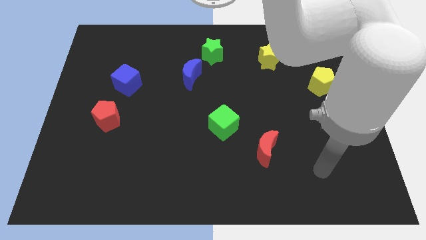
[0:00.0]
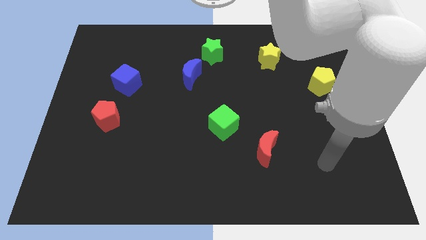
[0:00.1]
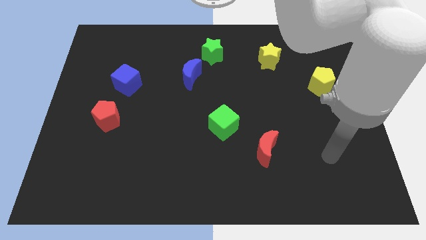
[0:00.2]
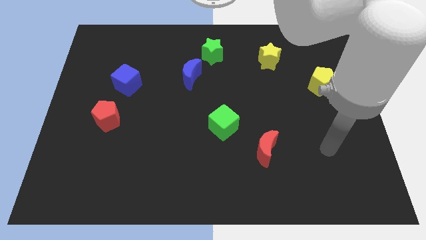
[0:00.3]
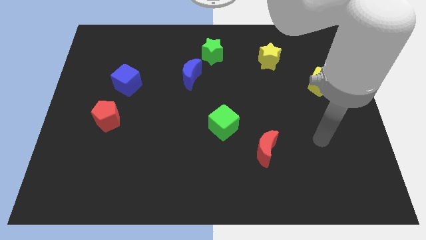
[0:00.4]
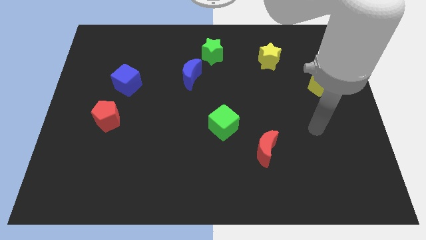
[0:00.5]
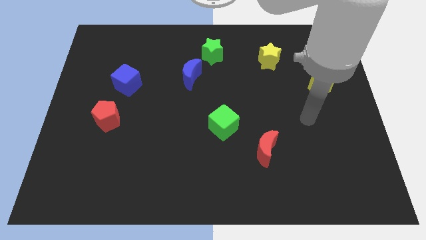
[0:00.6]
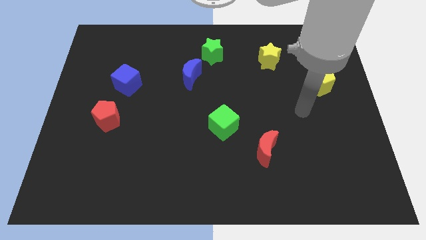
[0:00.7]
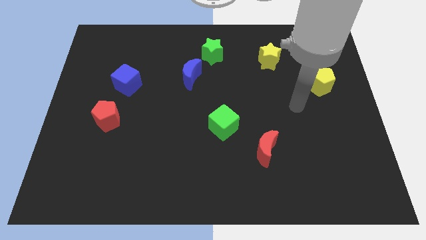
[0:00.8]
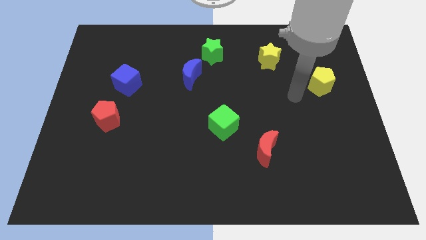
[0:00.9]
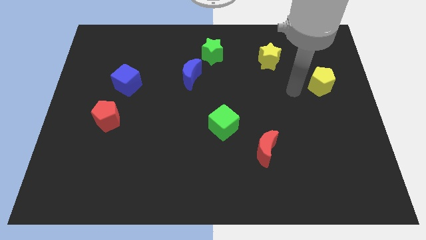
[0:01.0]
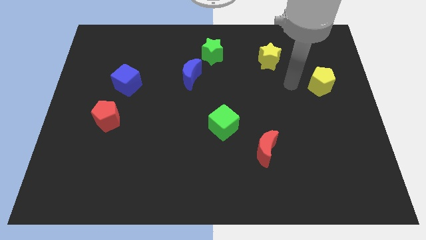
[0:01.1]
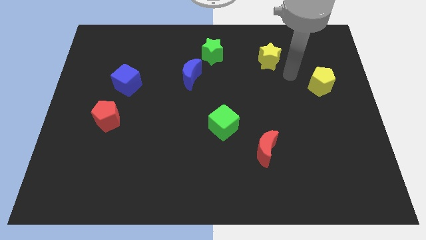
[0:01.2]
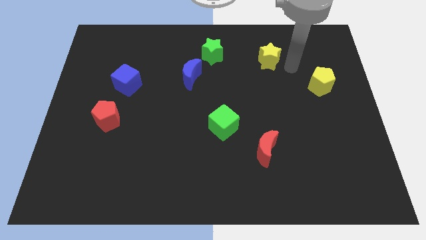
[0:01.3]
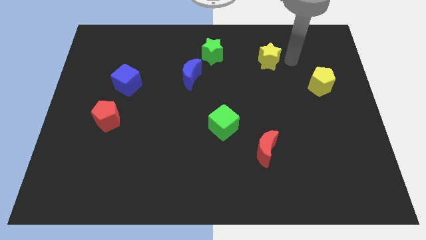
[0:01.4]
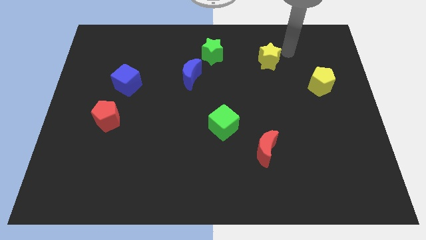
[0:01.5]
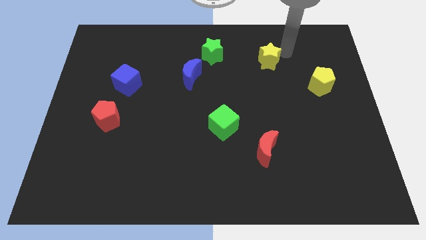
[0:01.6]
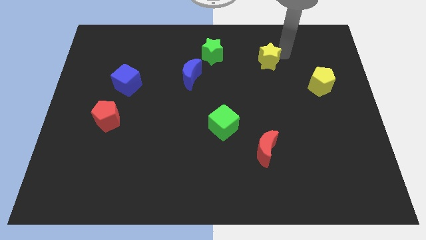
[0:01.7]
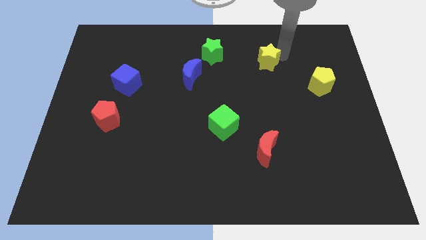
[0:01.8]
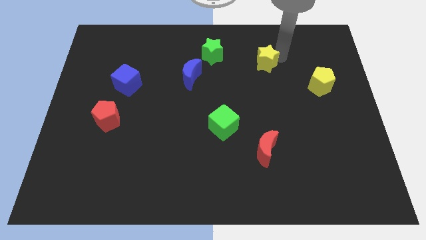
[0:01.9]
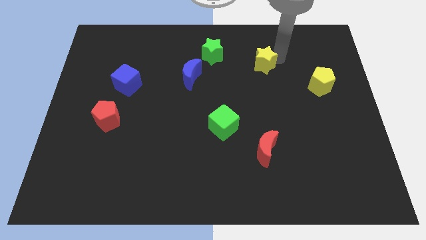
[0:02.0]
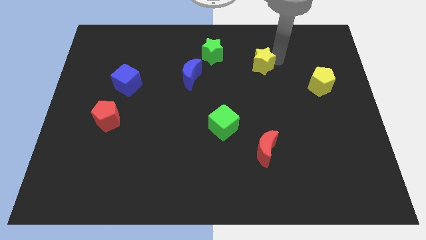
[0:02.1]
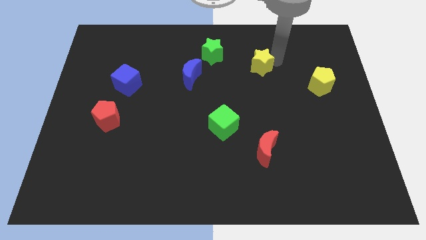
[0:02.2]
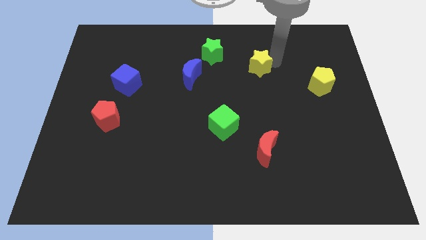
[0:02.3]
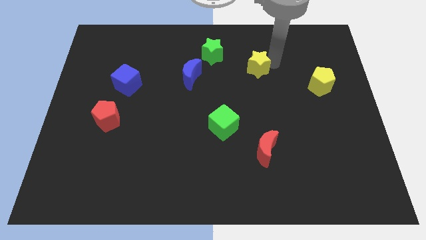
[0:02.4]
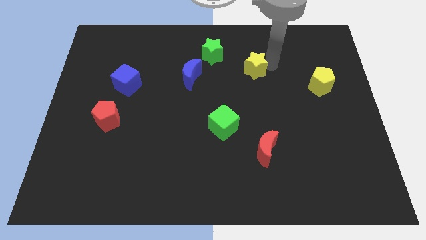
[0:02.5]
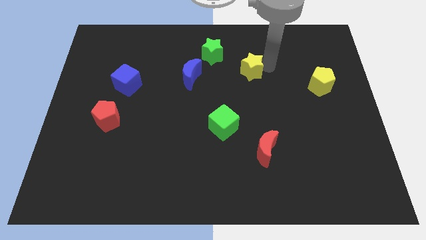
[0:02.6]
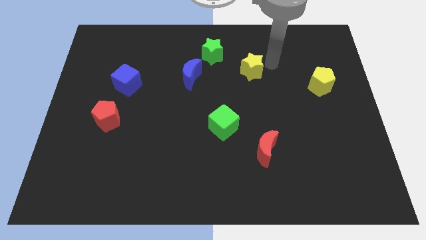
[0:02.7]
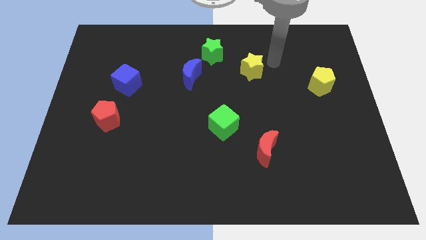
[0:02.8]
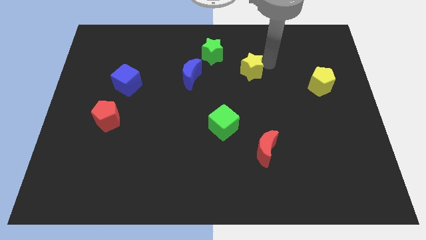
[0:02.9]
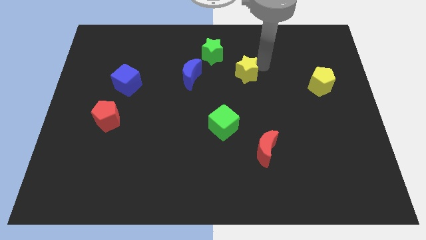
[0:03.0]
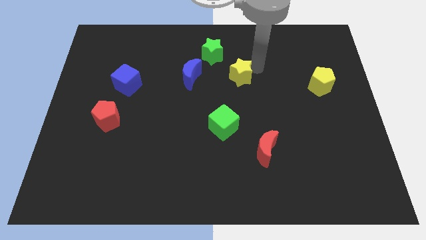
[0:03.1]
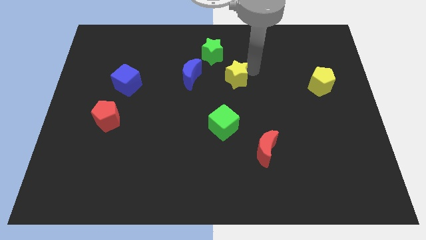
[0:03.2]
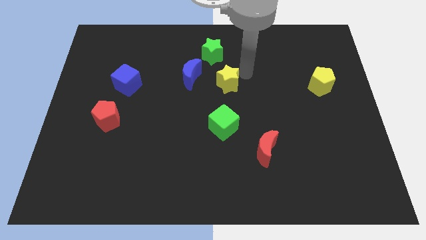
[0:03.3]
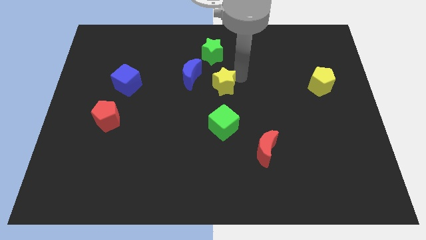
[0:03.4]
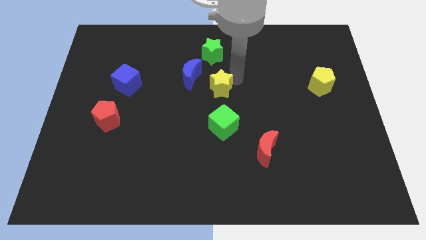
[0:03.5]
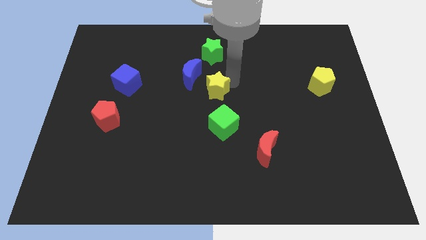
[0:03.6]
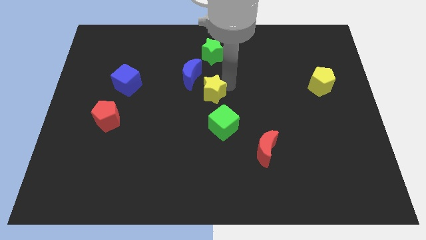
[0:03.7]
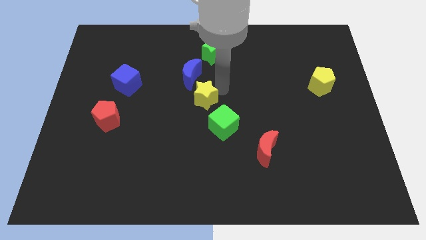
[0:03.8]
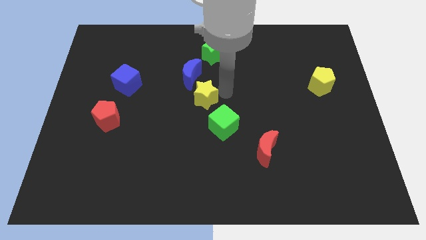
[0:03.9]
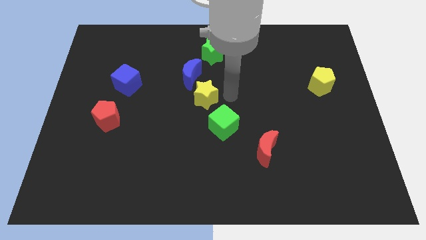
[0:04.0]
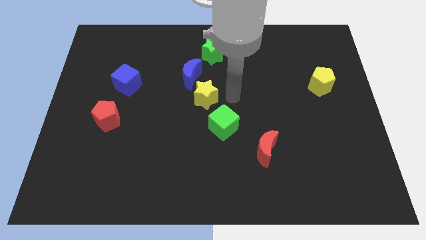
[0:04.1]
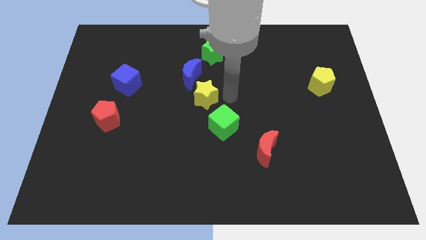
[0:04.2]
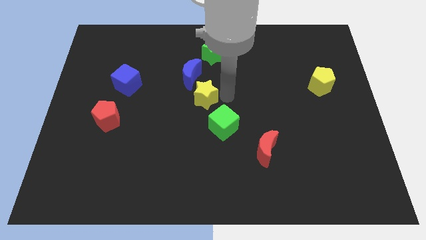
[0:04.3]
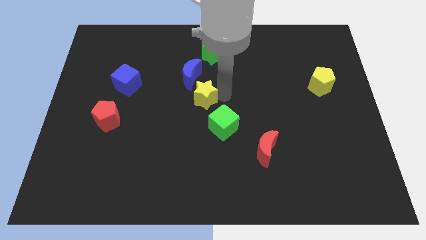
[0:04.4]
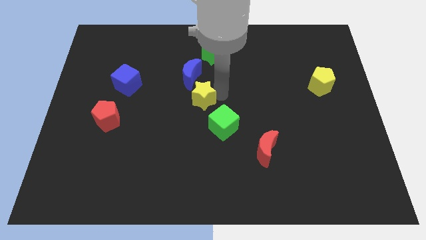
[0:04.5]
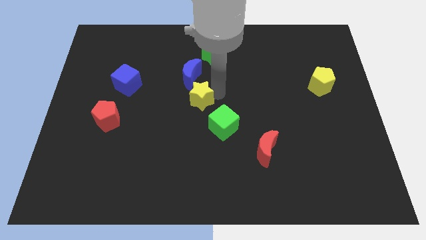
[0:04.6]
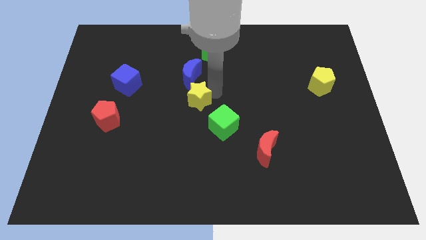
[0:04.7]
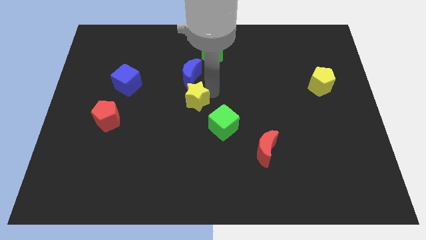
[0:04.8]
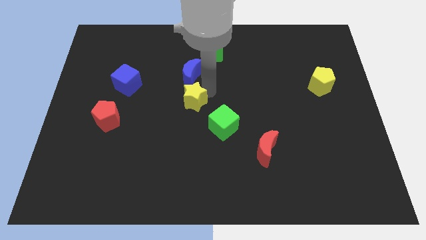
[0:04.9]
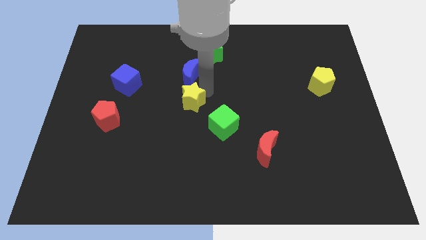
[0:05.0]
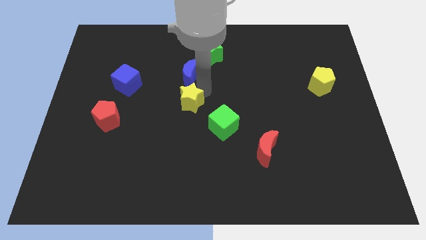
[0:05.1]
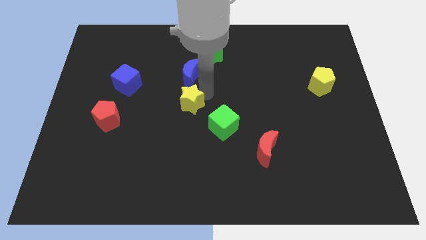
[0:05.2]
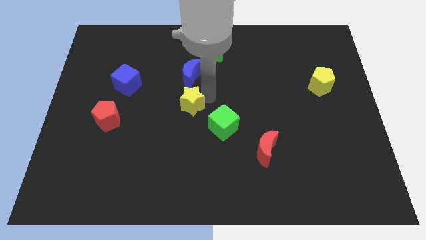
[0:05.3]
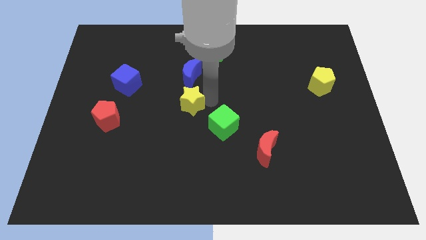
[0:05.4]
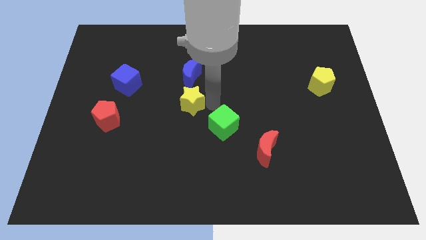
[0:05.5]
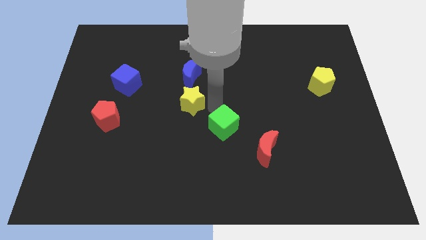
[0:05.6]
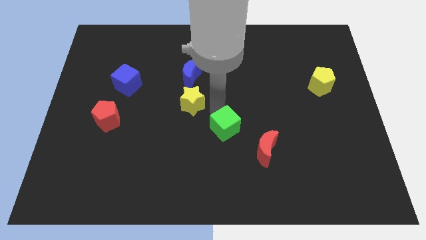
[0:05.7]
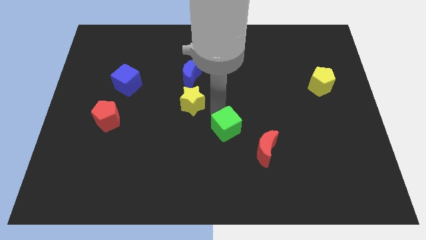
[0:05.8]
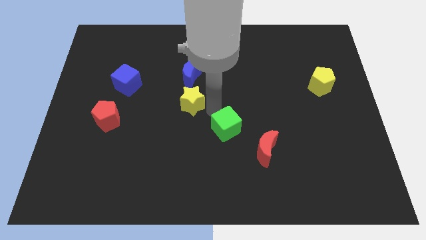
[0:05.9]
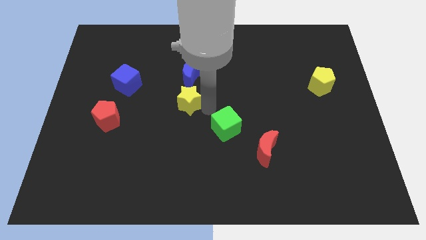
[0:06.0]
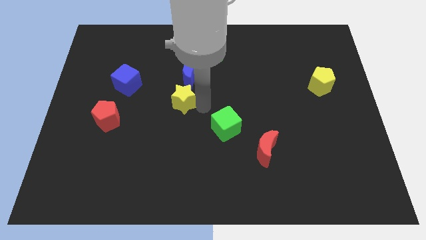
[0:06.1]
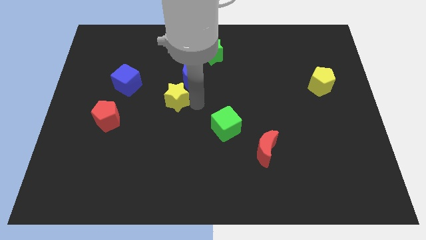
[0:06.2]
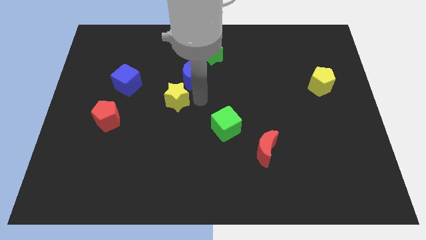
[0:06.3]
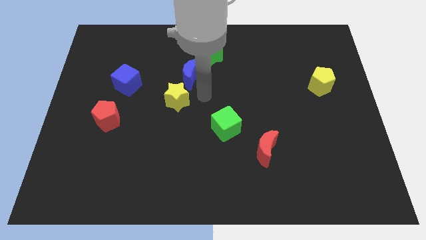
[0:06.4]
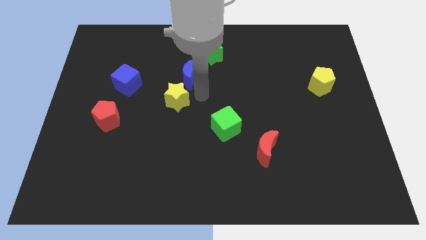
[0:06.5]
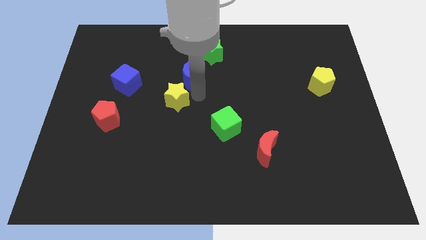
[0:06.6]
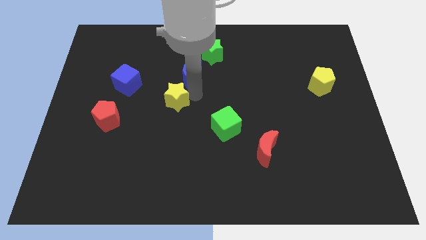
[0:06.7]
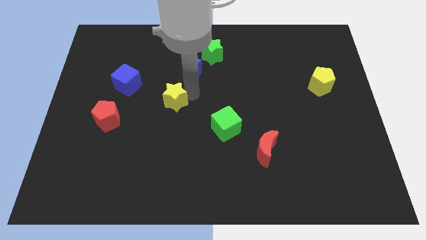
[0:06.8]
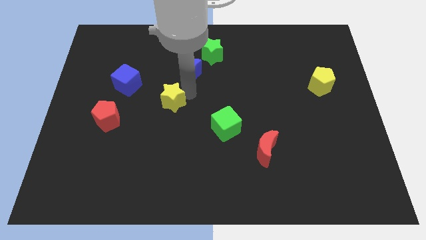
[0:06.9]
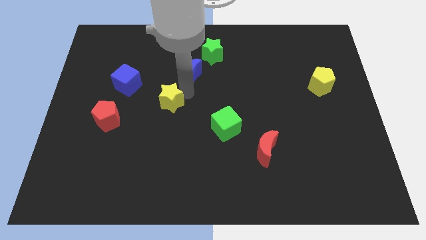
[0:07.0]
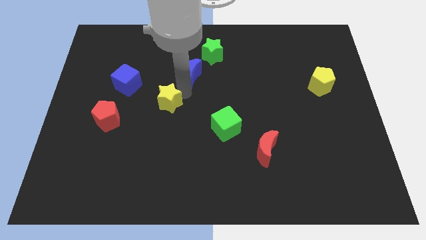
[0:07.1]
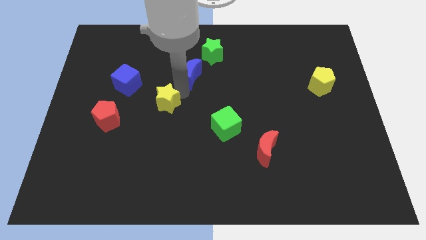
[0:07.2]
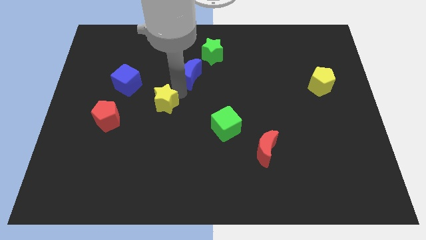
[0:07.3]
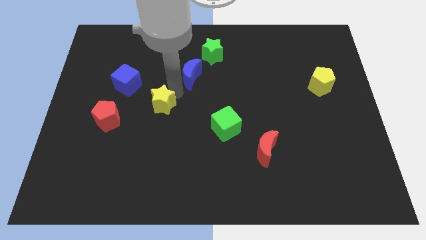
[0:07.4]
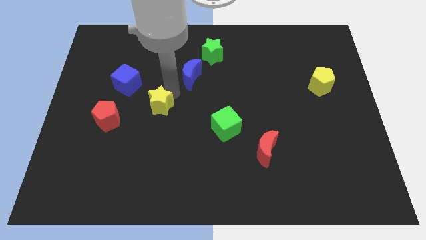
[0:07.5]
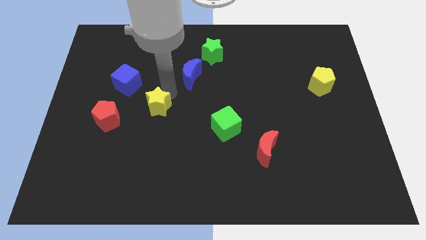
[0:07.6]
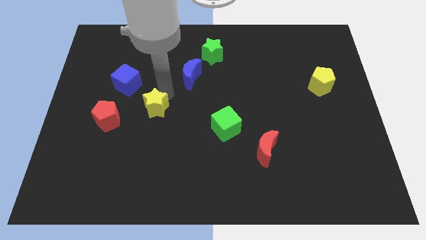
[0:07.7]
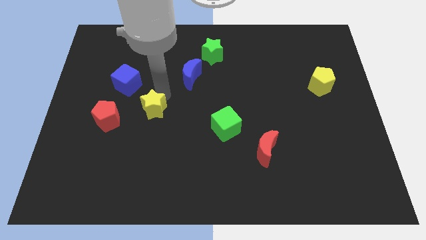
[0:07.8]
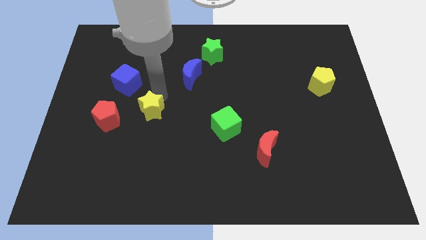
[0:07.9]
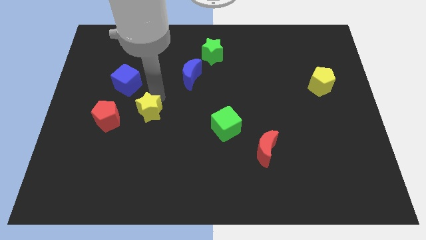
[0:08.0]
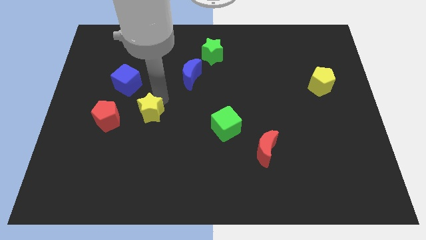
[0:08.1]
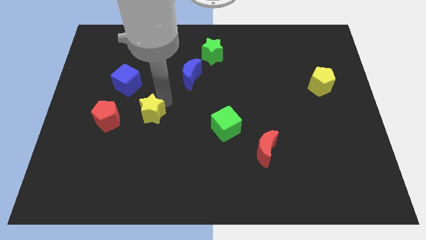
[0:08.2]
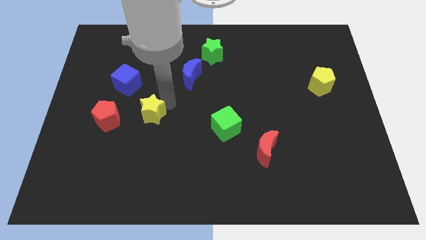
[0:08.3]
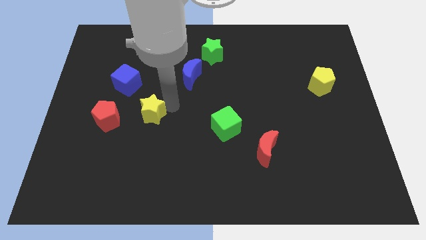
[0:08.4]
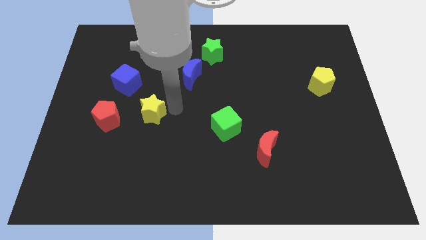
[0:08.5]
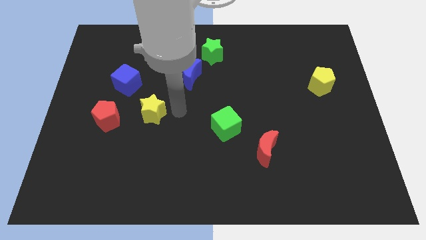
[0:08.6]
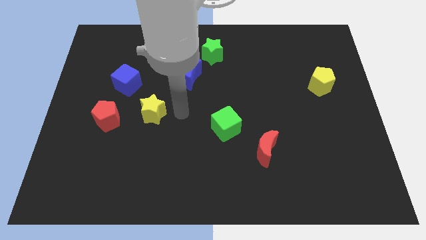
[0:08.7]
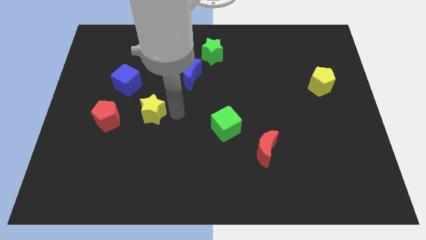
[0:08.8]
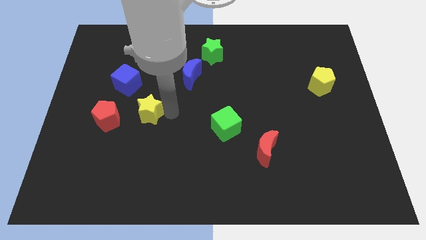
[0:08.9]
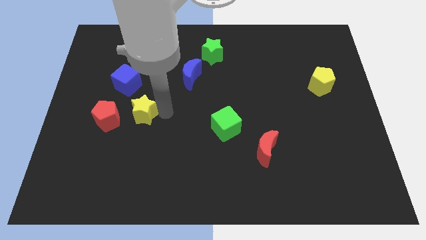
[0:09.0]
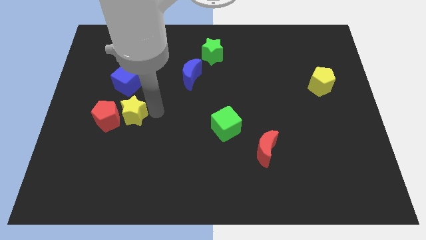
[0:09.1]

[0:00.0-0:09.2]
put the yellow star next to the red pentagon
